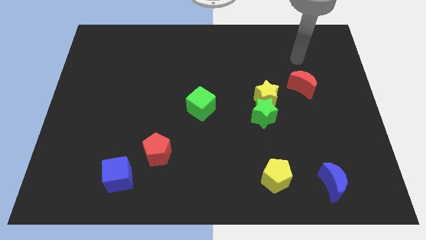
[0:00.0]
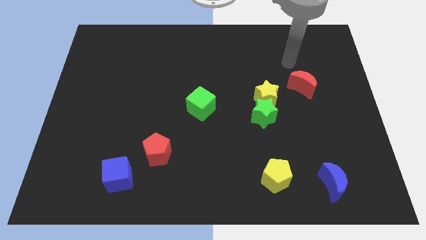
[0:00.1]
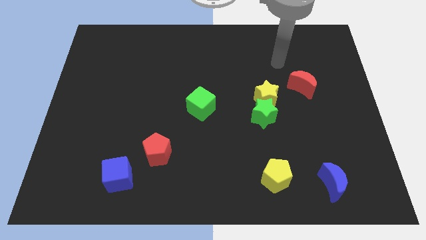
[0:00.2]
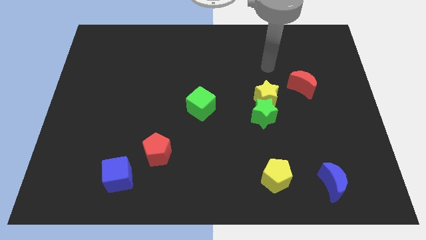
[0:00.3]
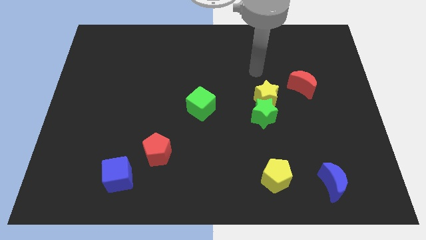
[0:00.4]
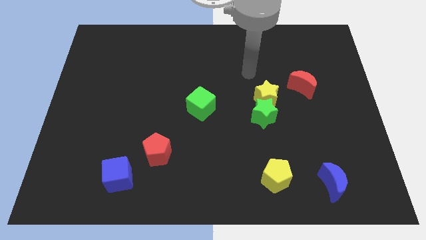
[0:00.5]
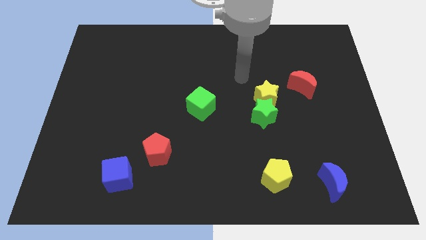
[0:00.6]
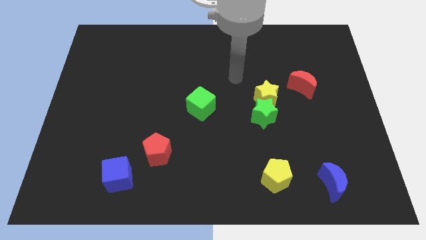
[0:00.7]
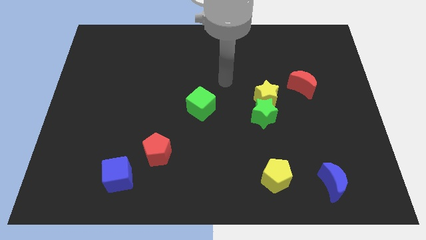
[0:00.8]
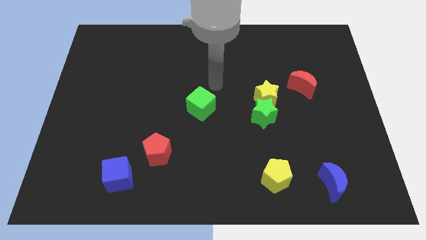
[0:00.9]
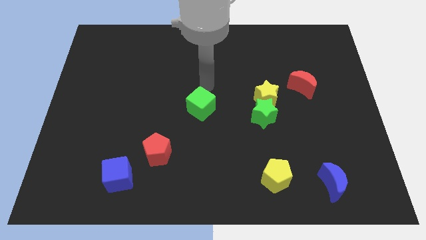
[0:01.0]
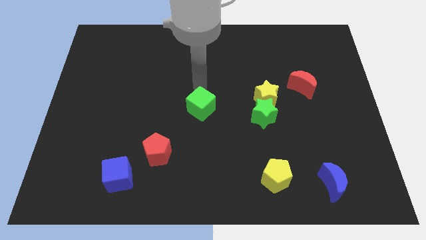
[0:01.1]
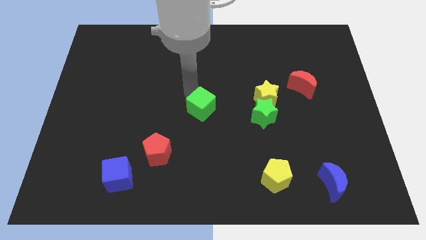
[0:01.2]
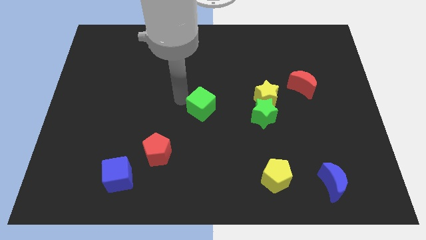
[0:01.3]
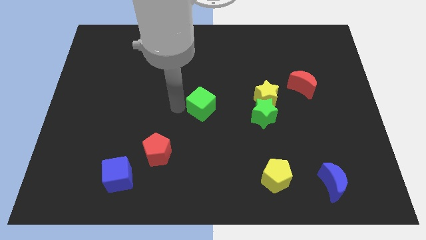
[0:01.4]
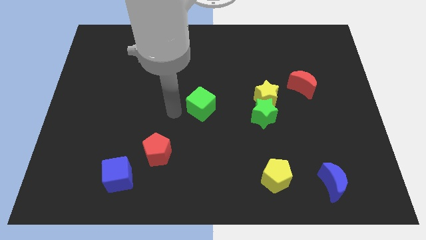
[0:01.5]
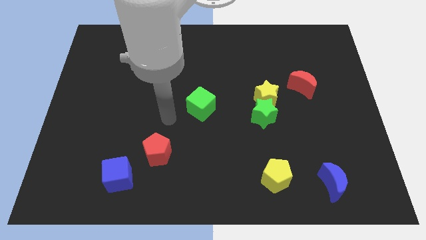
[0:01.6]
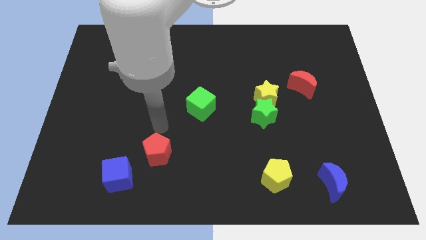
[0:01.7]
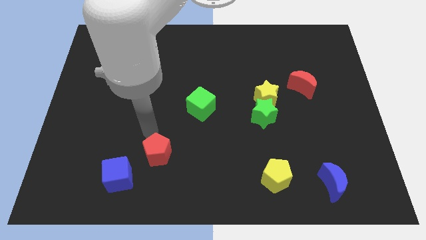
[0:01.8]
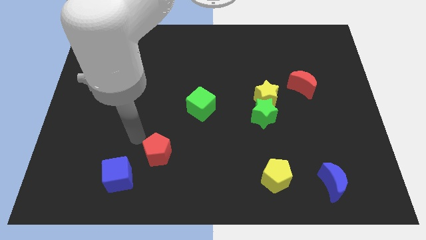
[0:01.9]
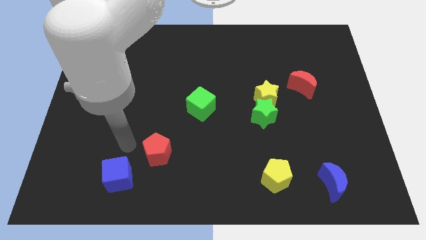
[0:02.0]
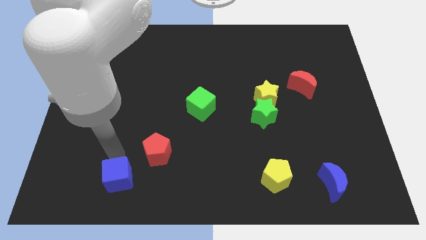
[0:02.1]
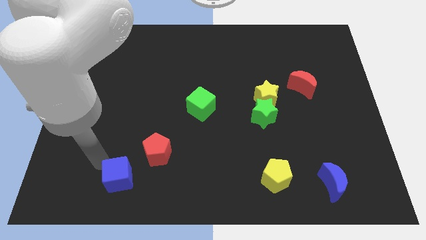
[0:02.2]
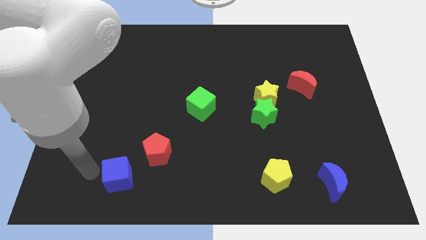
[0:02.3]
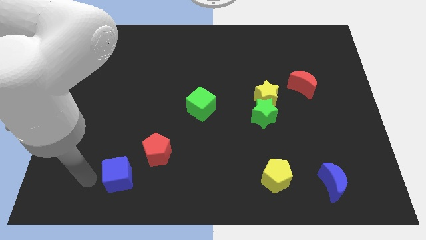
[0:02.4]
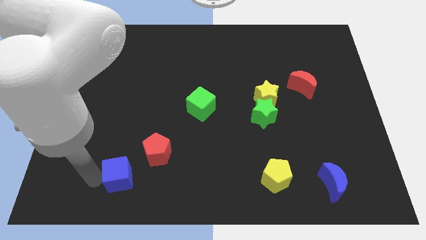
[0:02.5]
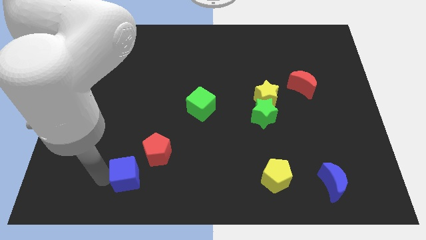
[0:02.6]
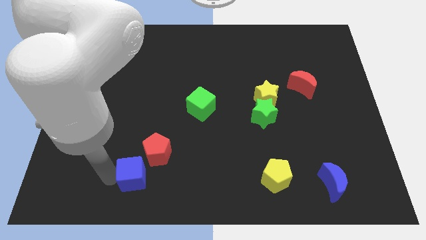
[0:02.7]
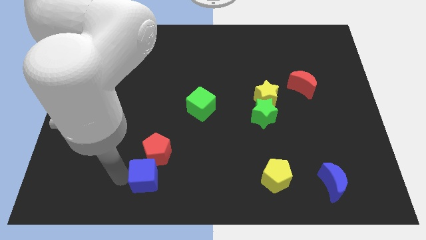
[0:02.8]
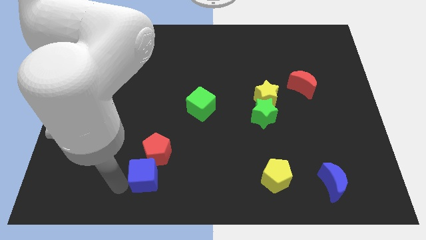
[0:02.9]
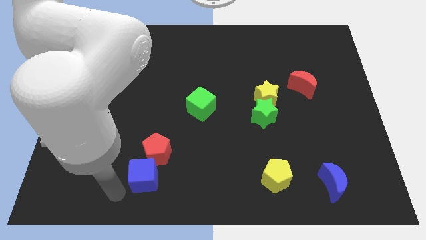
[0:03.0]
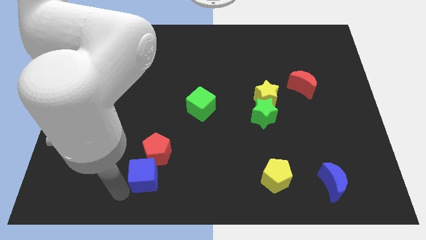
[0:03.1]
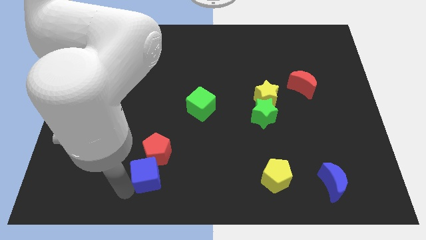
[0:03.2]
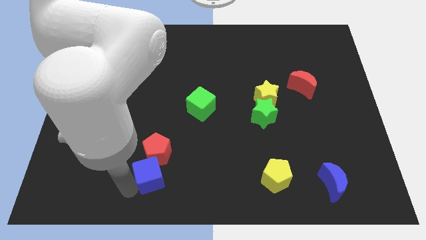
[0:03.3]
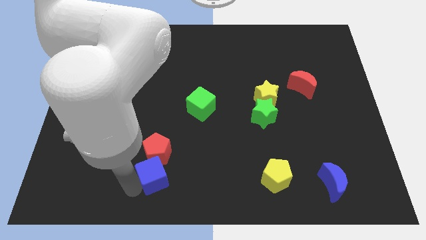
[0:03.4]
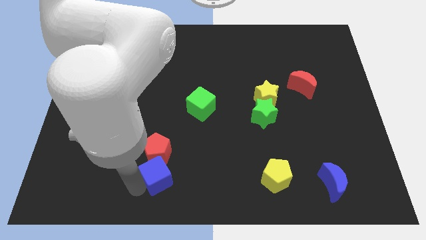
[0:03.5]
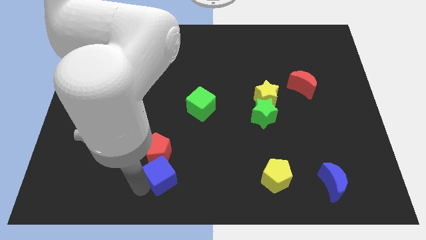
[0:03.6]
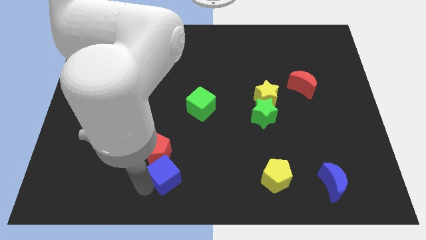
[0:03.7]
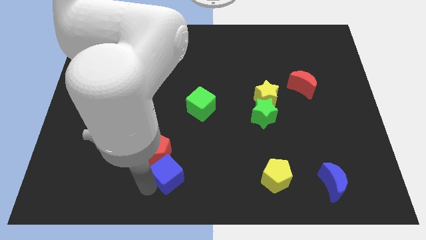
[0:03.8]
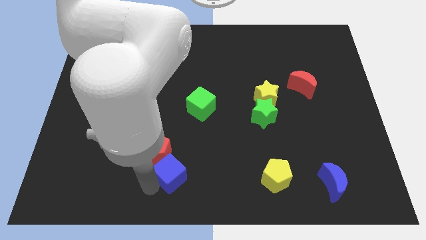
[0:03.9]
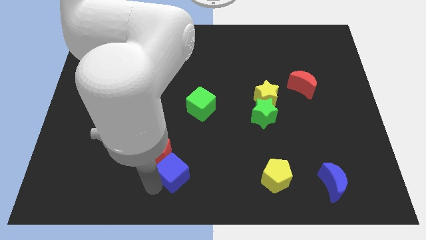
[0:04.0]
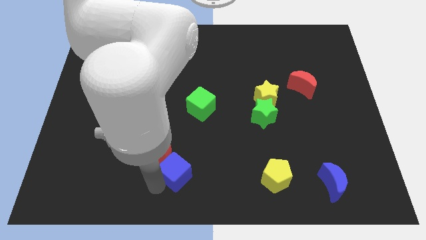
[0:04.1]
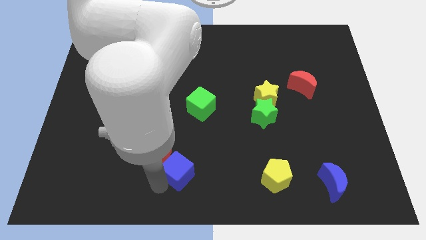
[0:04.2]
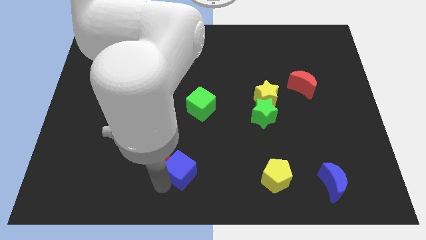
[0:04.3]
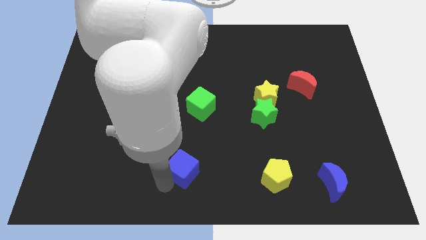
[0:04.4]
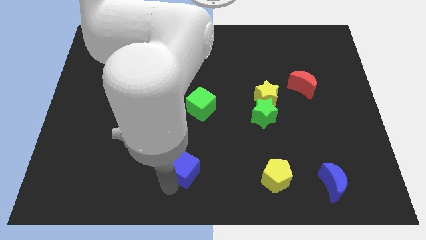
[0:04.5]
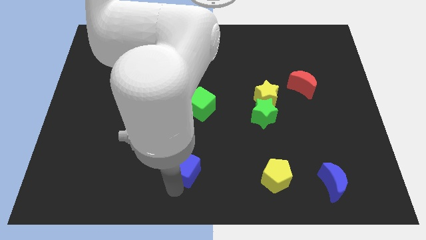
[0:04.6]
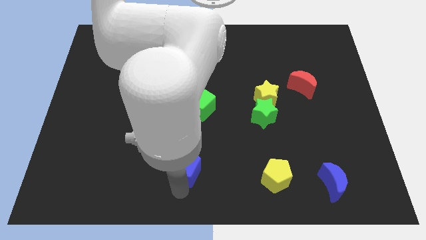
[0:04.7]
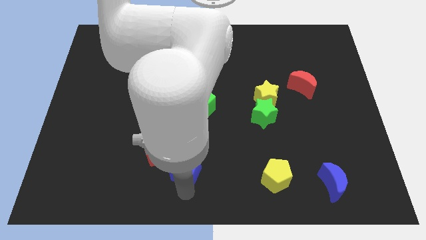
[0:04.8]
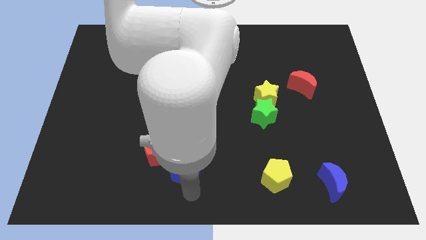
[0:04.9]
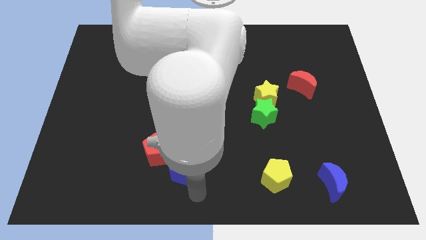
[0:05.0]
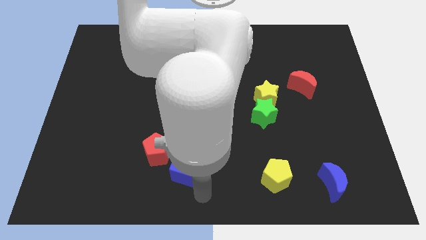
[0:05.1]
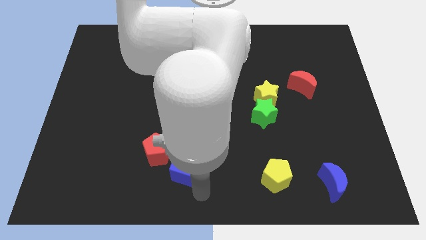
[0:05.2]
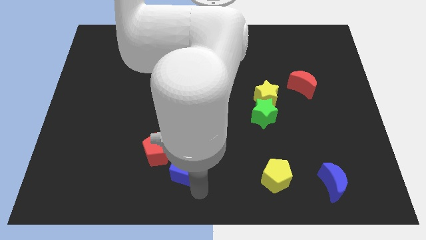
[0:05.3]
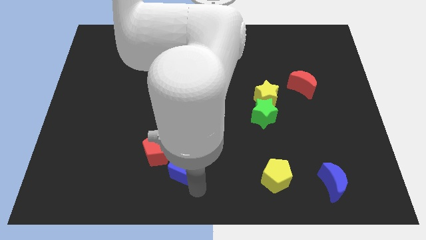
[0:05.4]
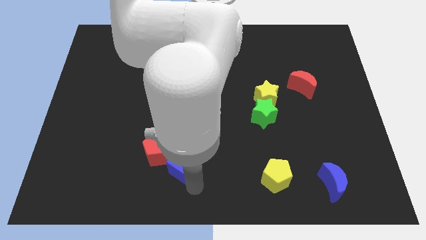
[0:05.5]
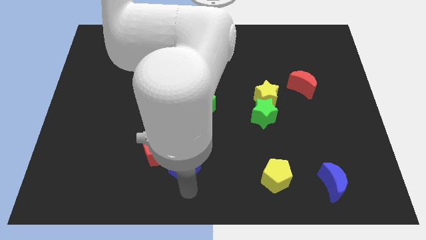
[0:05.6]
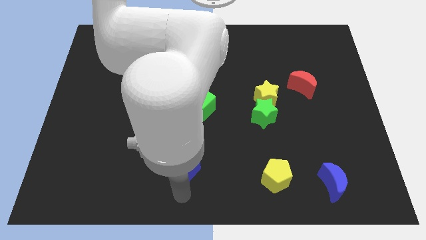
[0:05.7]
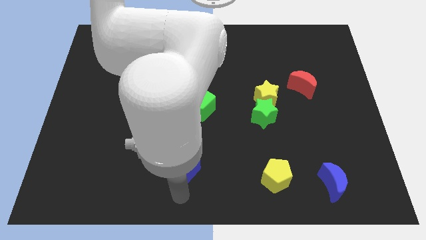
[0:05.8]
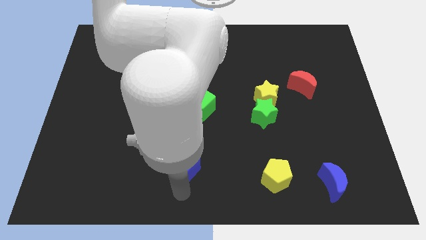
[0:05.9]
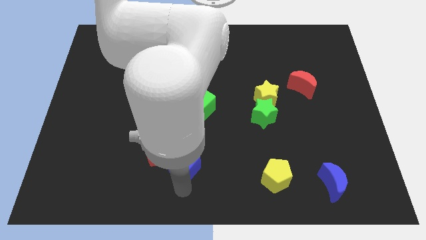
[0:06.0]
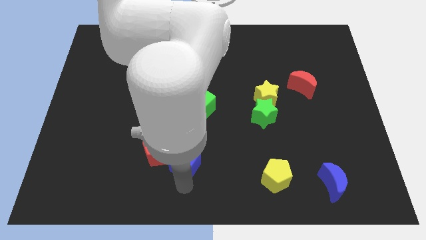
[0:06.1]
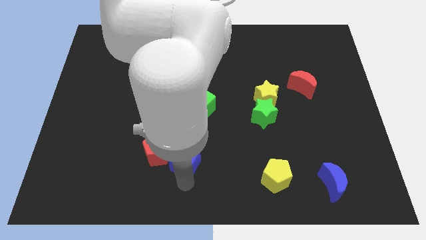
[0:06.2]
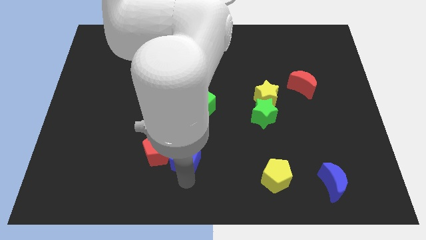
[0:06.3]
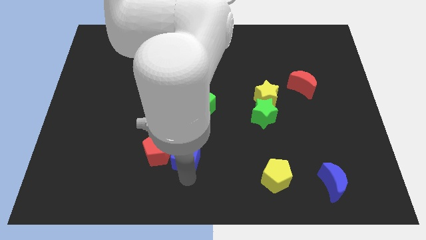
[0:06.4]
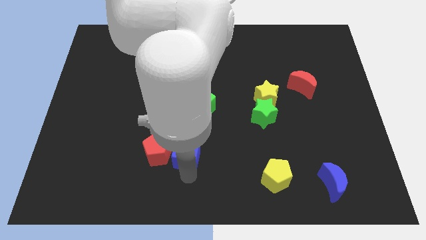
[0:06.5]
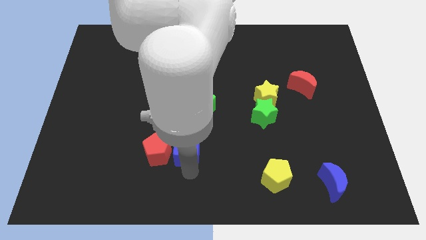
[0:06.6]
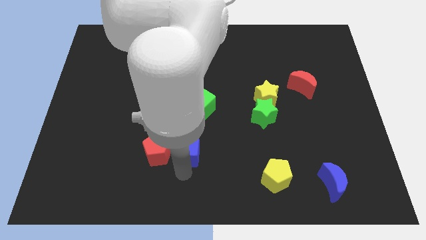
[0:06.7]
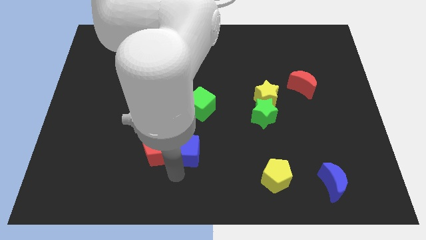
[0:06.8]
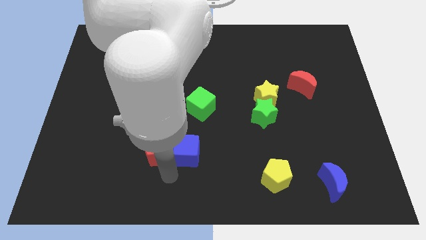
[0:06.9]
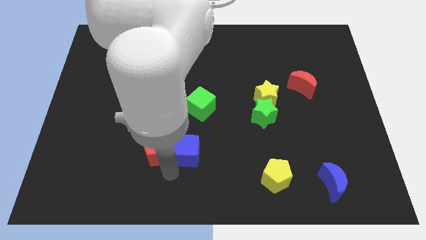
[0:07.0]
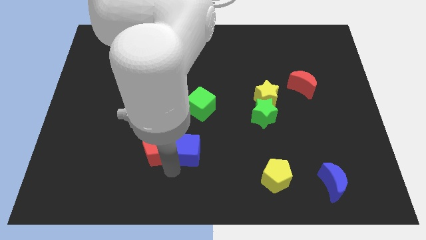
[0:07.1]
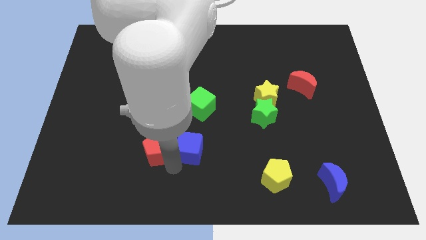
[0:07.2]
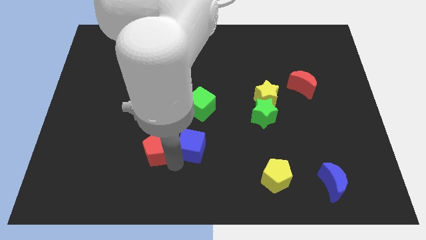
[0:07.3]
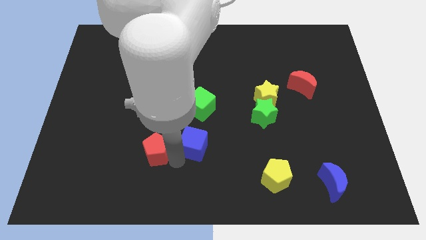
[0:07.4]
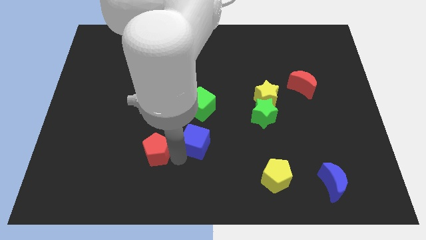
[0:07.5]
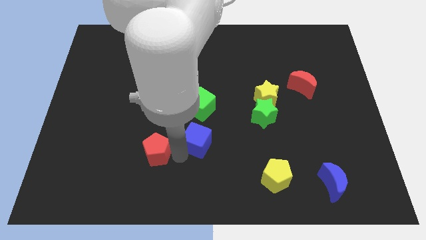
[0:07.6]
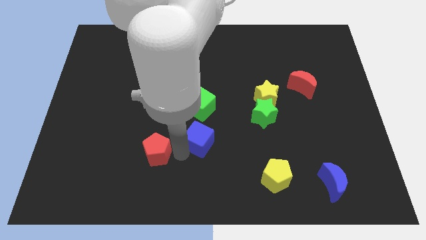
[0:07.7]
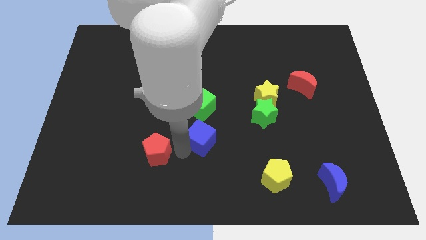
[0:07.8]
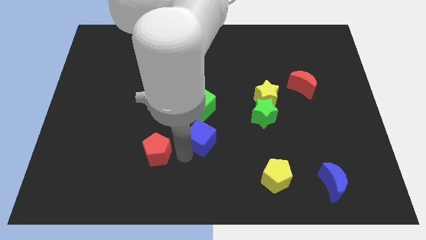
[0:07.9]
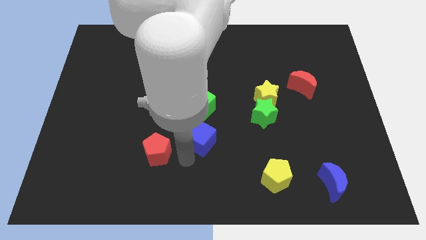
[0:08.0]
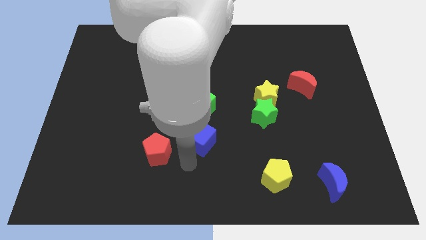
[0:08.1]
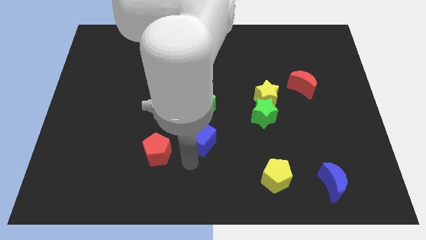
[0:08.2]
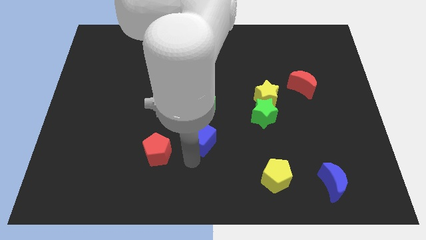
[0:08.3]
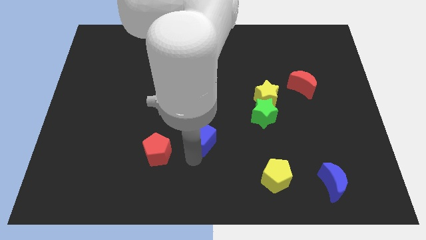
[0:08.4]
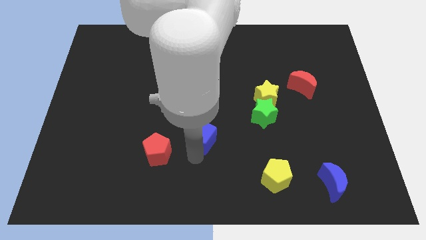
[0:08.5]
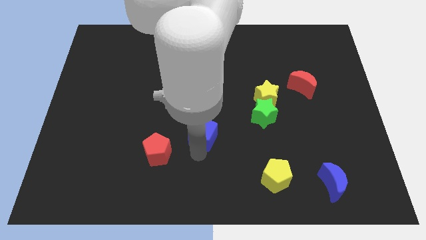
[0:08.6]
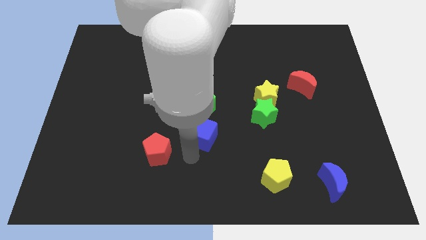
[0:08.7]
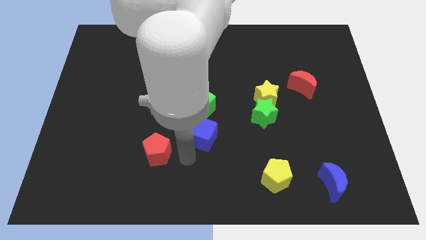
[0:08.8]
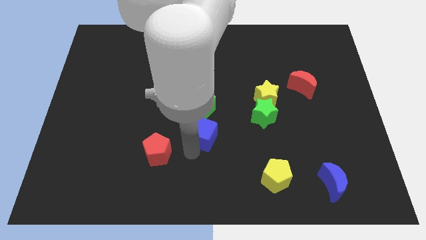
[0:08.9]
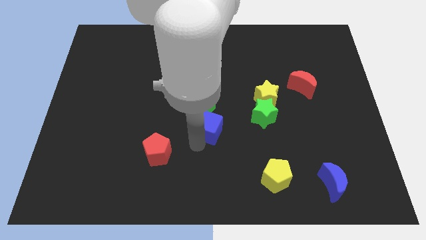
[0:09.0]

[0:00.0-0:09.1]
move the blue cube up and to the right diagonally
